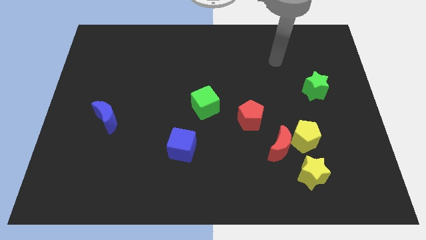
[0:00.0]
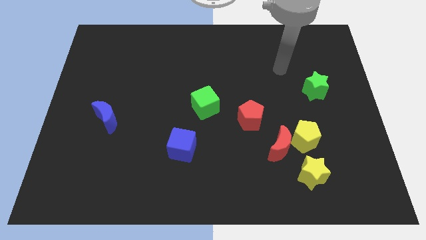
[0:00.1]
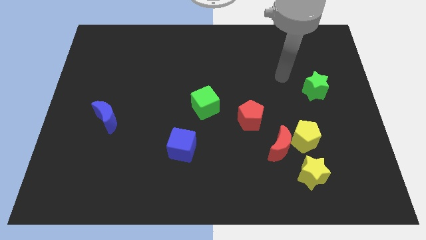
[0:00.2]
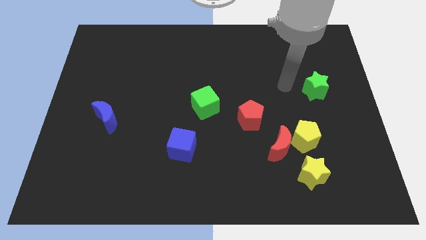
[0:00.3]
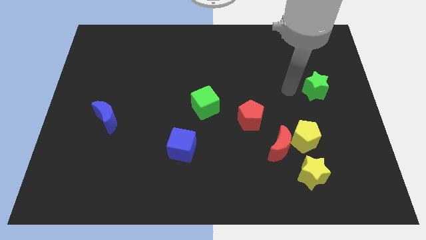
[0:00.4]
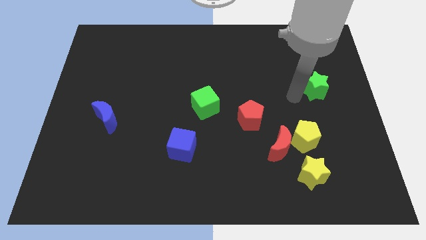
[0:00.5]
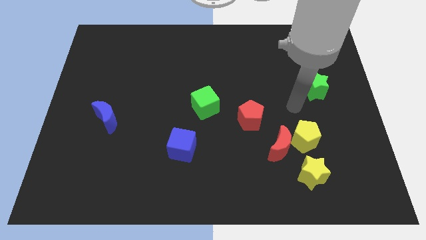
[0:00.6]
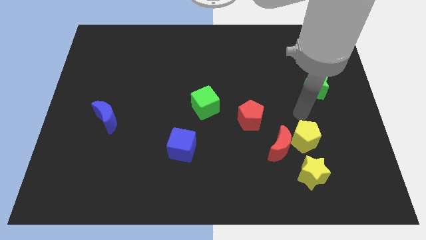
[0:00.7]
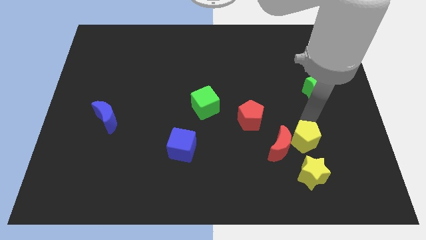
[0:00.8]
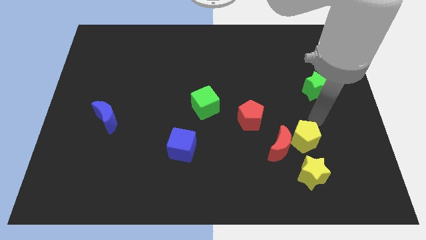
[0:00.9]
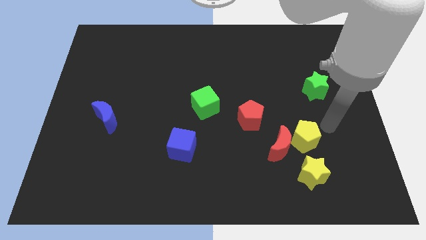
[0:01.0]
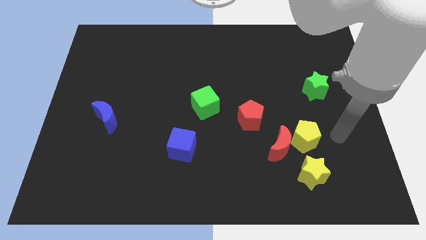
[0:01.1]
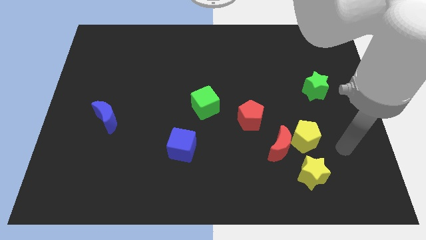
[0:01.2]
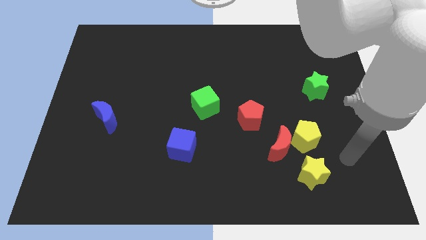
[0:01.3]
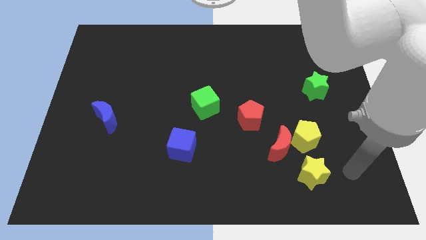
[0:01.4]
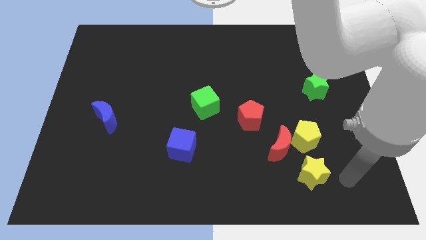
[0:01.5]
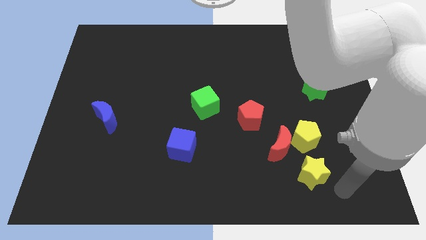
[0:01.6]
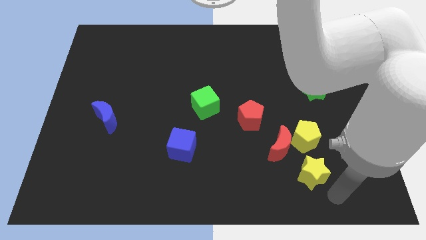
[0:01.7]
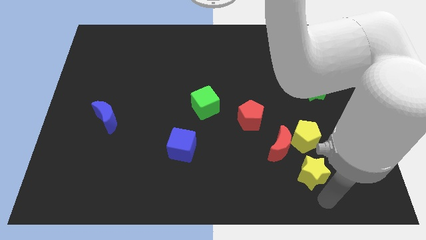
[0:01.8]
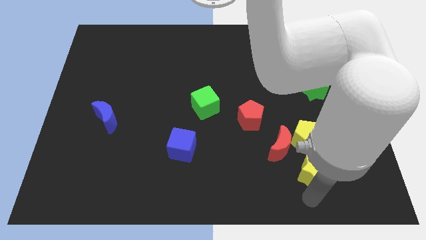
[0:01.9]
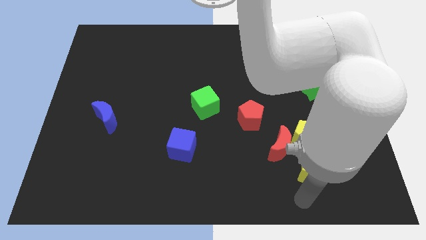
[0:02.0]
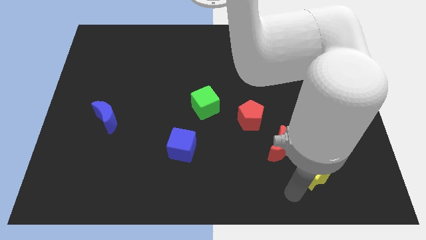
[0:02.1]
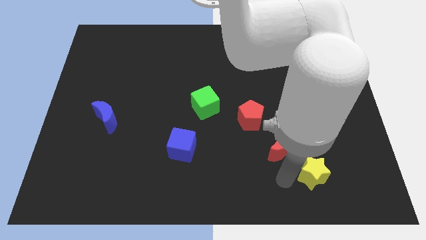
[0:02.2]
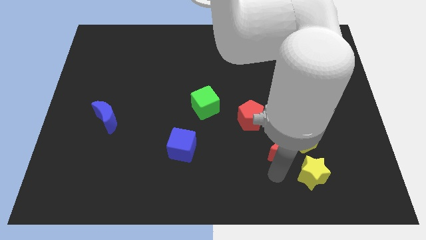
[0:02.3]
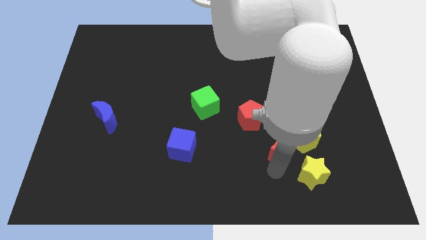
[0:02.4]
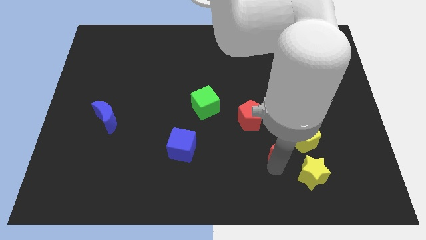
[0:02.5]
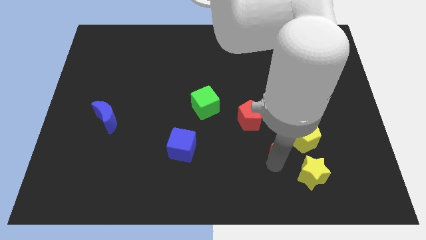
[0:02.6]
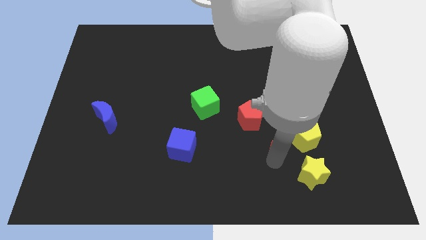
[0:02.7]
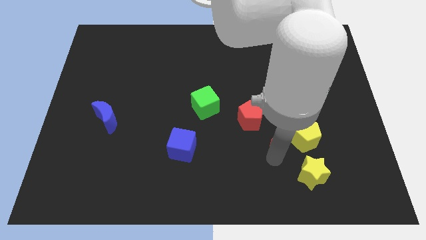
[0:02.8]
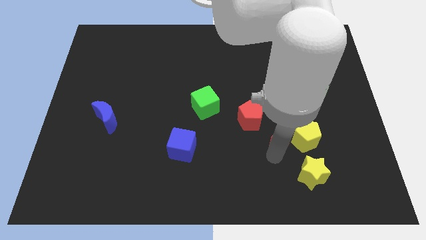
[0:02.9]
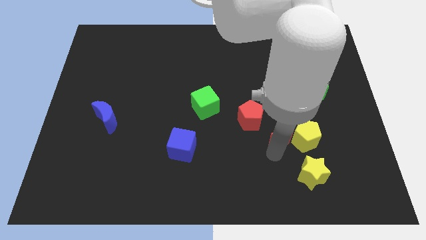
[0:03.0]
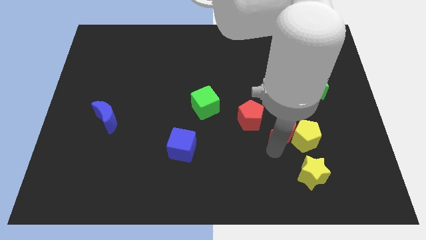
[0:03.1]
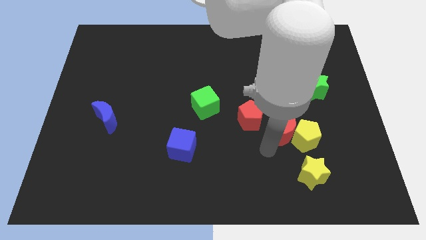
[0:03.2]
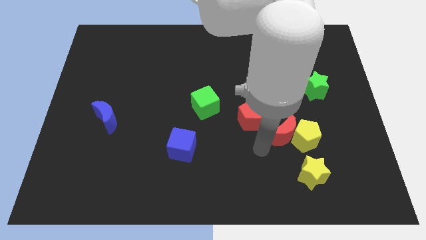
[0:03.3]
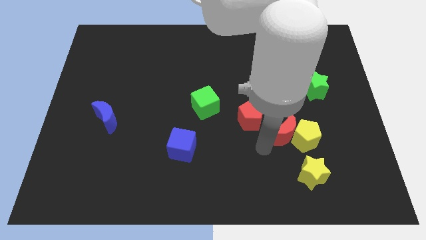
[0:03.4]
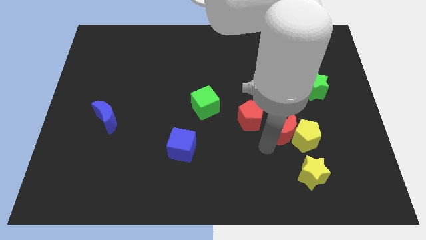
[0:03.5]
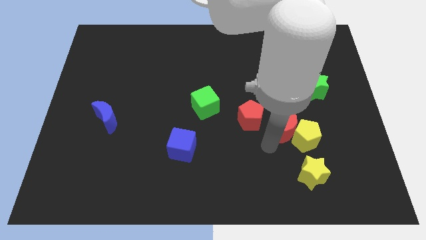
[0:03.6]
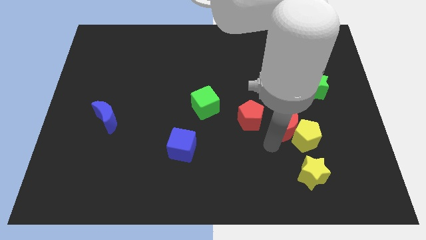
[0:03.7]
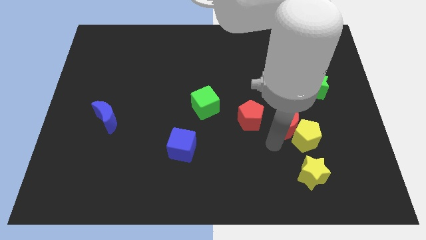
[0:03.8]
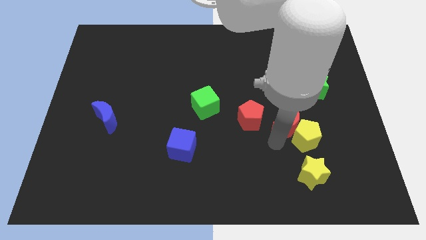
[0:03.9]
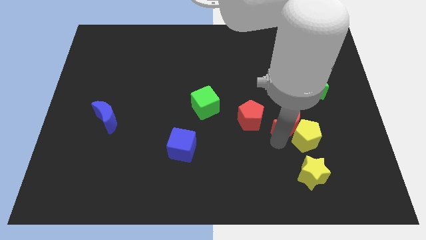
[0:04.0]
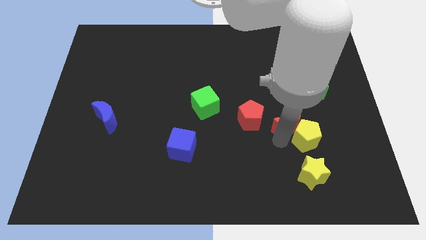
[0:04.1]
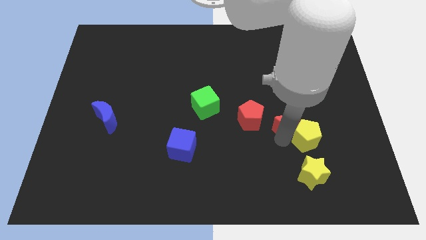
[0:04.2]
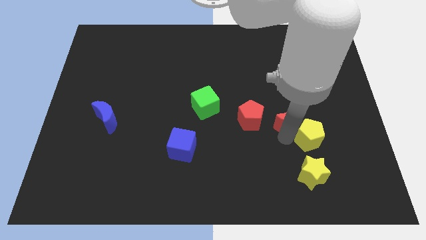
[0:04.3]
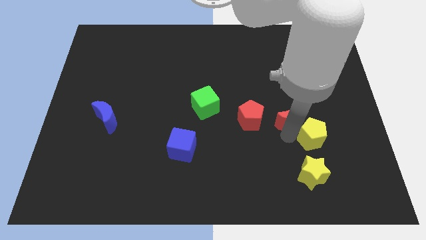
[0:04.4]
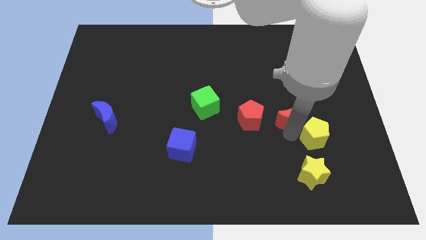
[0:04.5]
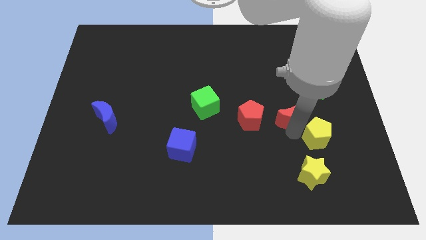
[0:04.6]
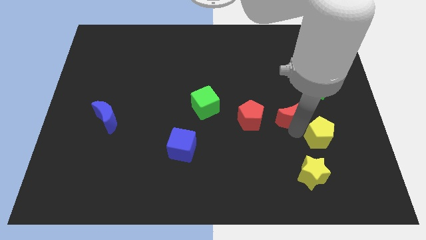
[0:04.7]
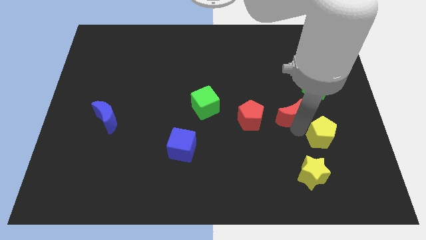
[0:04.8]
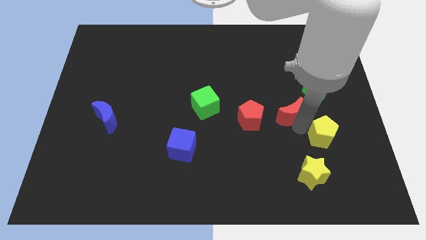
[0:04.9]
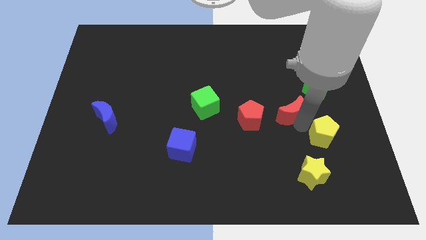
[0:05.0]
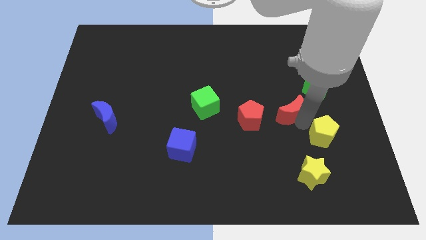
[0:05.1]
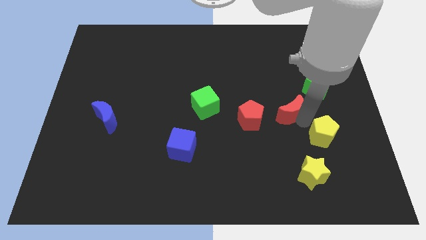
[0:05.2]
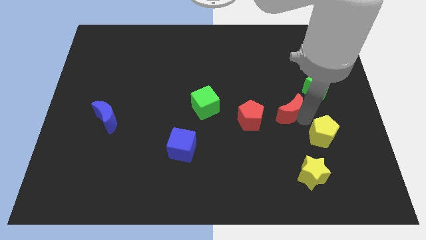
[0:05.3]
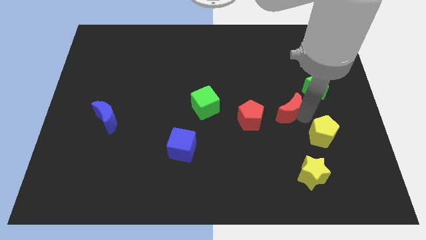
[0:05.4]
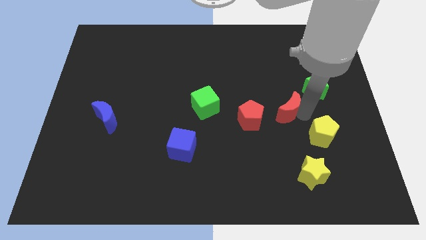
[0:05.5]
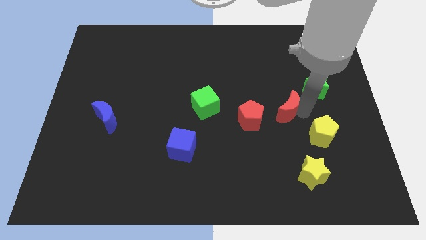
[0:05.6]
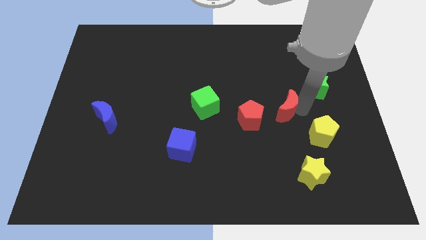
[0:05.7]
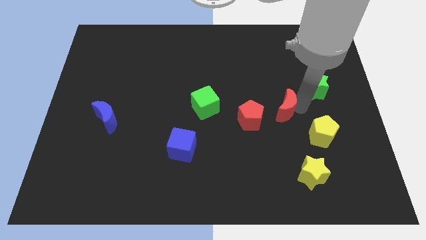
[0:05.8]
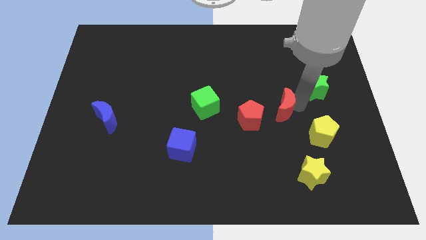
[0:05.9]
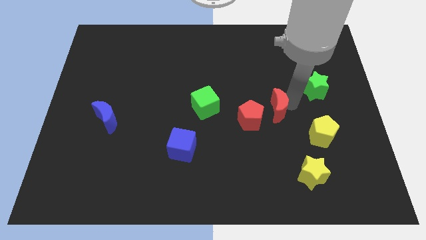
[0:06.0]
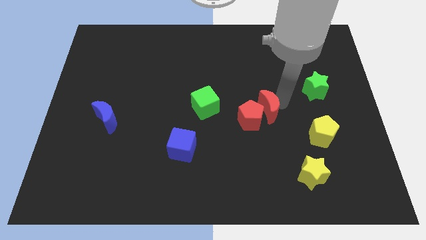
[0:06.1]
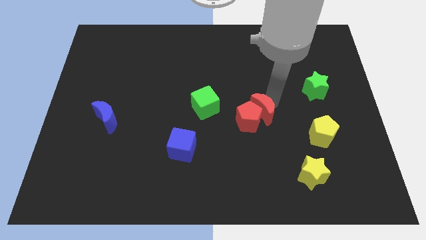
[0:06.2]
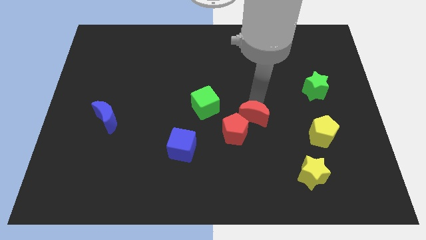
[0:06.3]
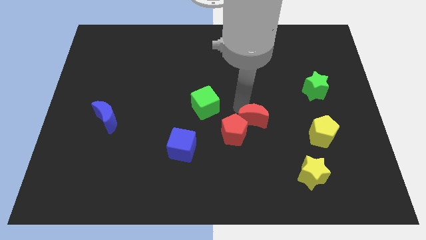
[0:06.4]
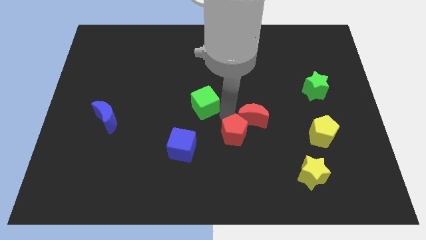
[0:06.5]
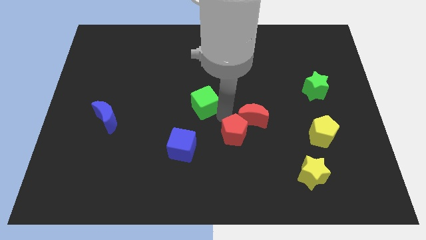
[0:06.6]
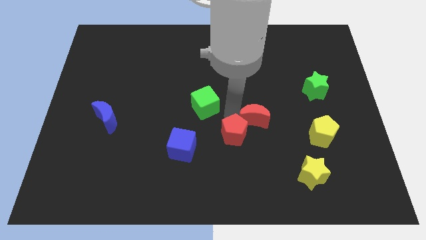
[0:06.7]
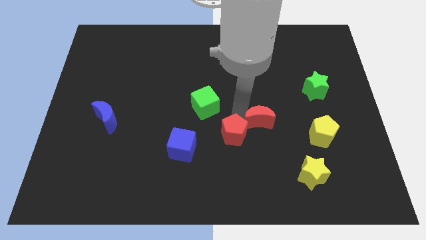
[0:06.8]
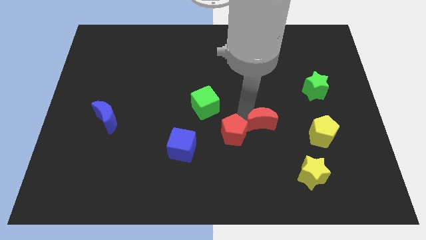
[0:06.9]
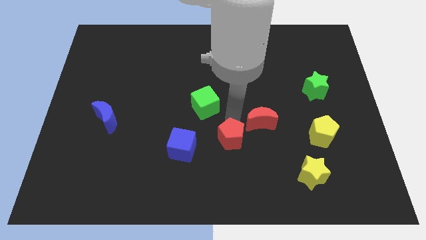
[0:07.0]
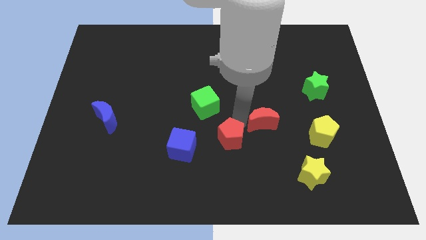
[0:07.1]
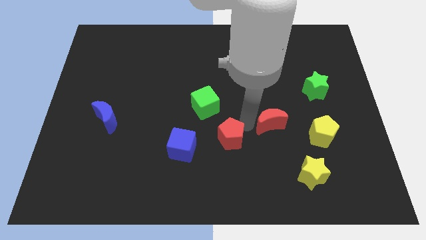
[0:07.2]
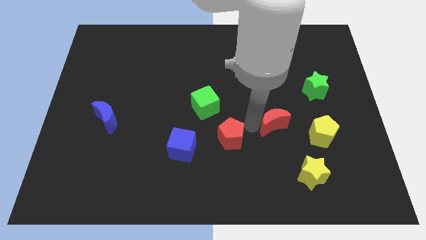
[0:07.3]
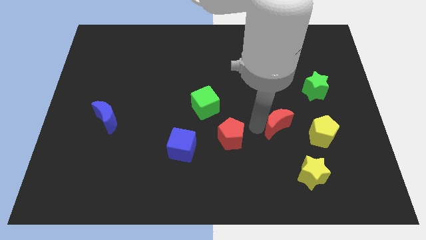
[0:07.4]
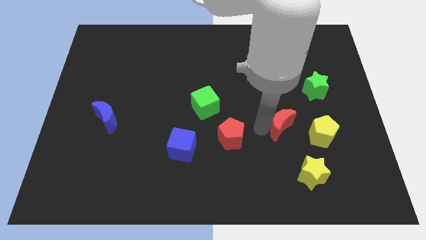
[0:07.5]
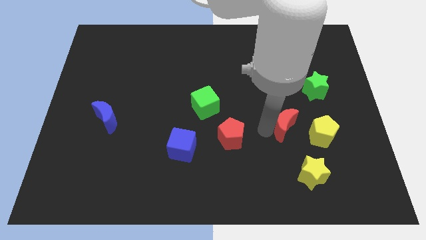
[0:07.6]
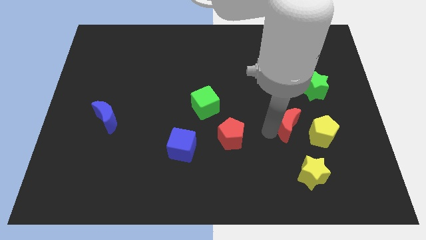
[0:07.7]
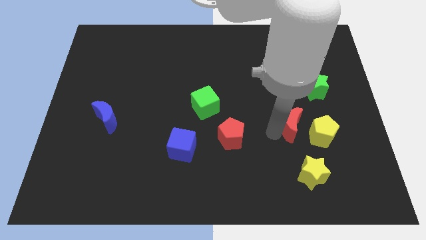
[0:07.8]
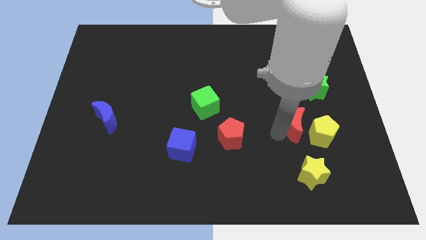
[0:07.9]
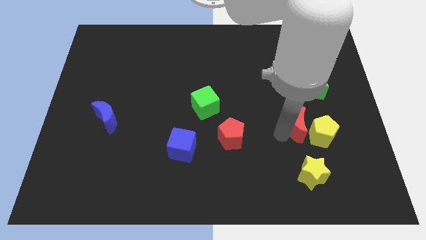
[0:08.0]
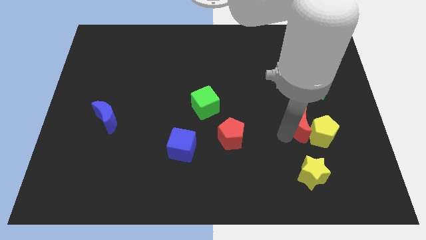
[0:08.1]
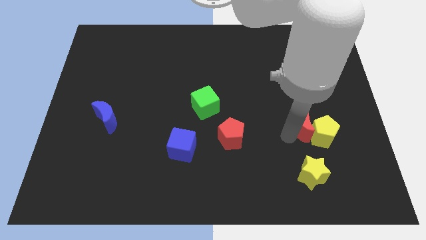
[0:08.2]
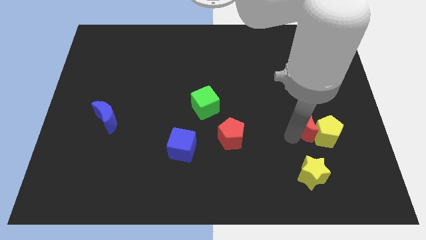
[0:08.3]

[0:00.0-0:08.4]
push the red moon below the green star

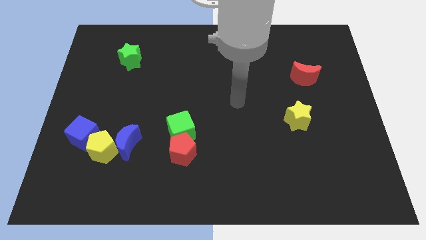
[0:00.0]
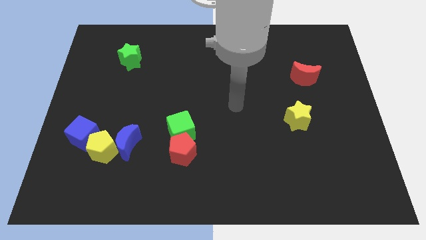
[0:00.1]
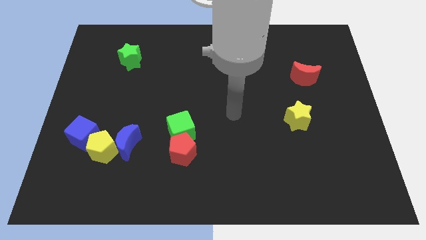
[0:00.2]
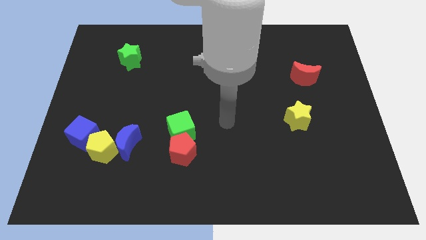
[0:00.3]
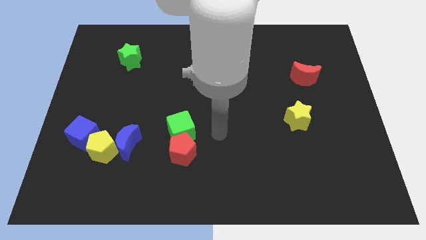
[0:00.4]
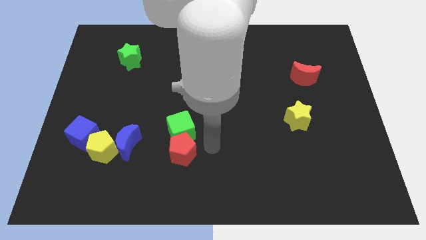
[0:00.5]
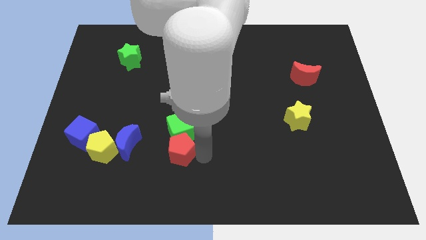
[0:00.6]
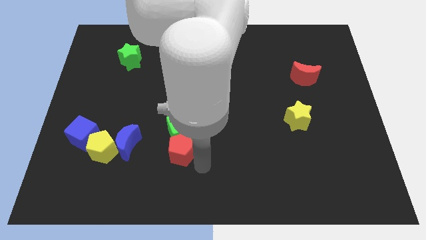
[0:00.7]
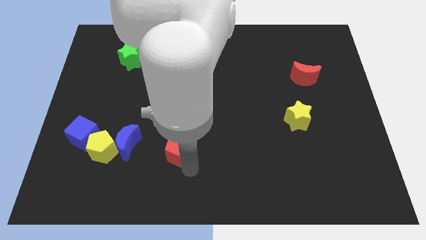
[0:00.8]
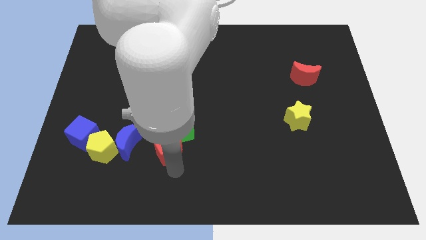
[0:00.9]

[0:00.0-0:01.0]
put the blue moon to the top left side of the red pentagon
